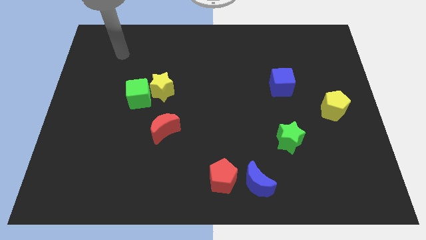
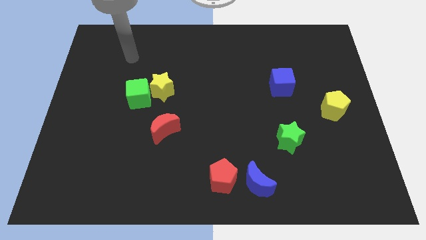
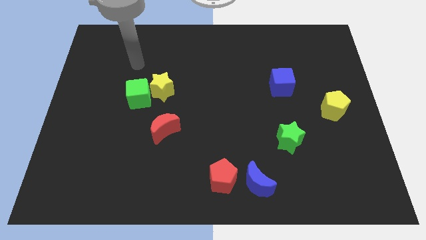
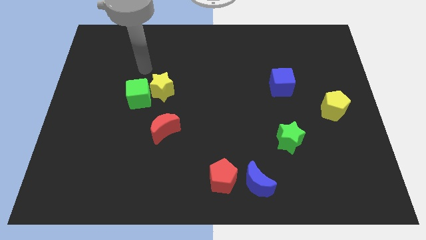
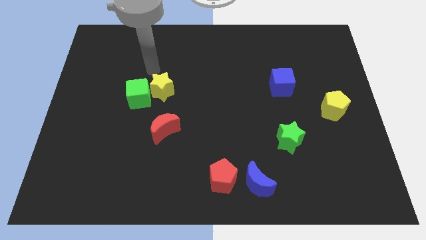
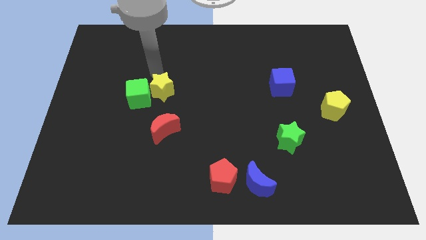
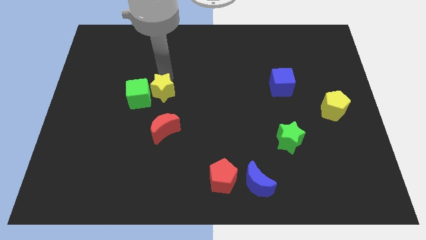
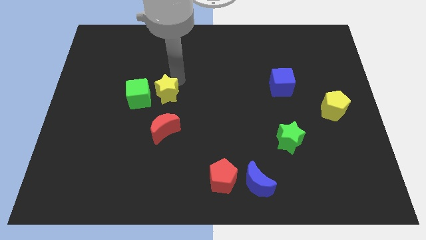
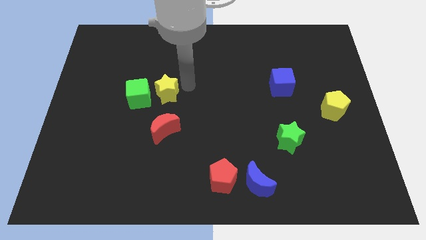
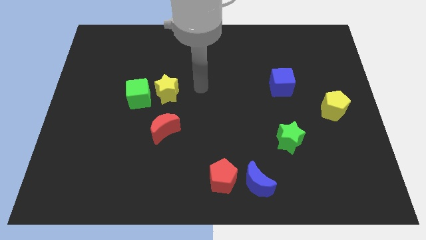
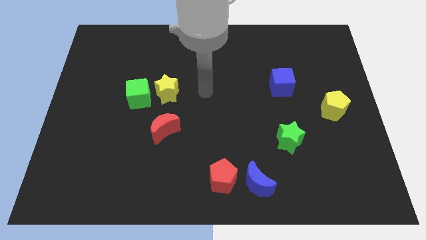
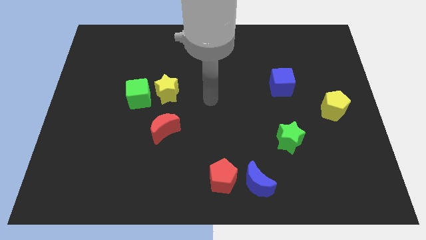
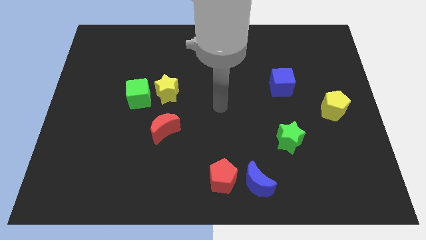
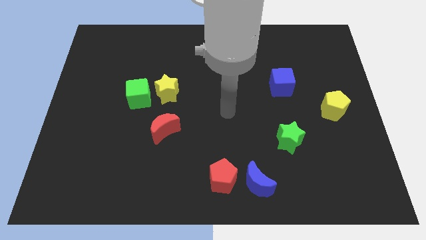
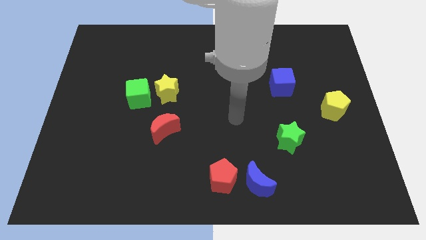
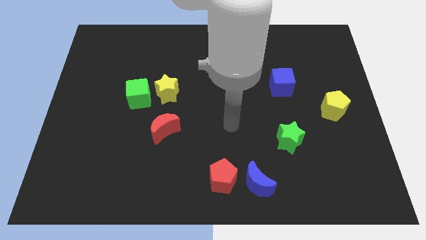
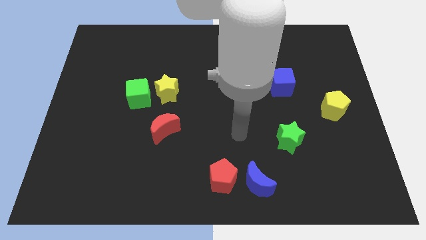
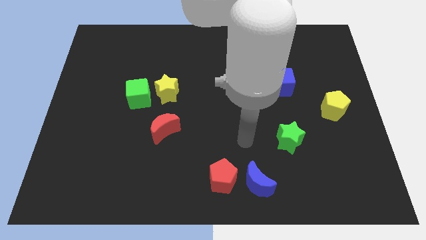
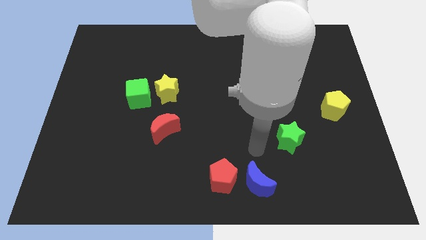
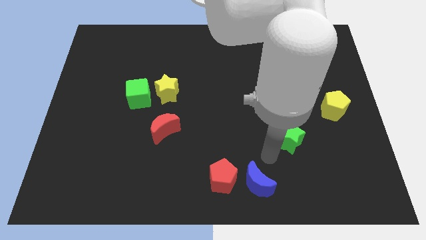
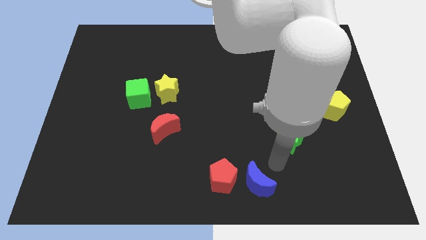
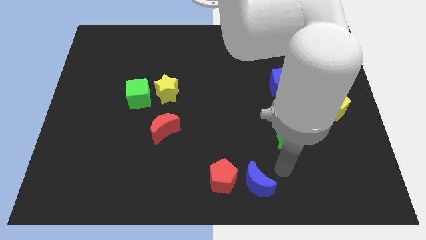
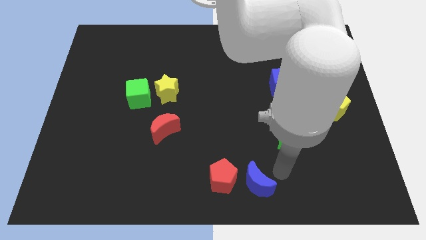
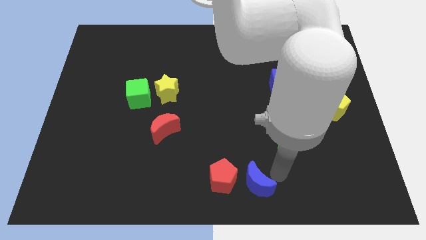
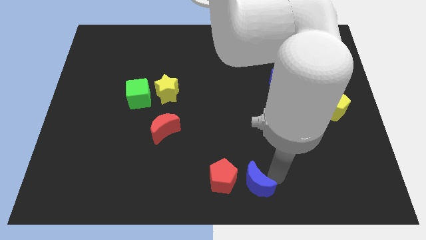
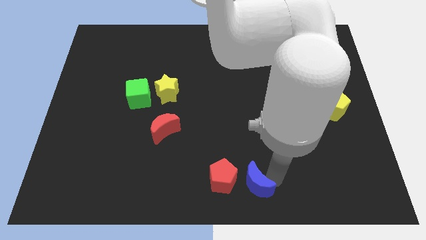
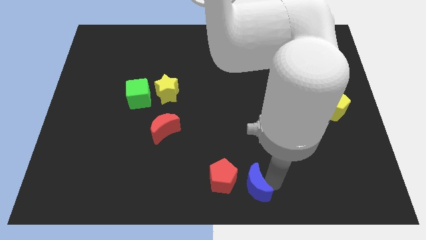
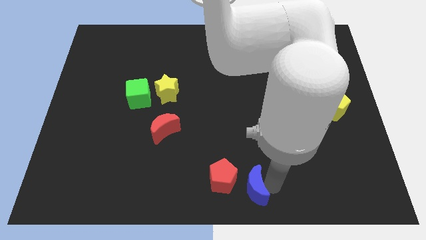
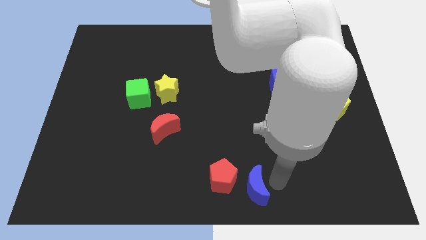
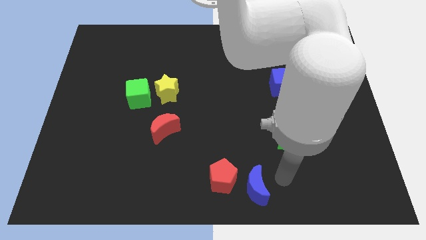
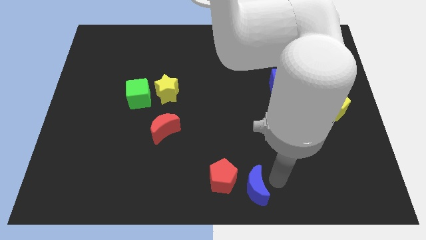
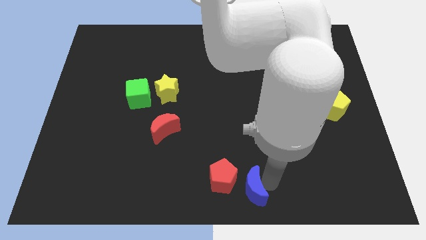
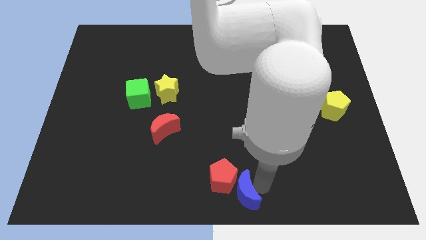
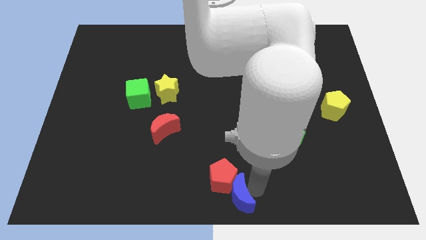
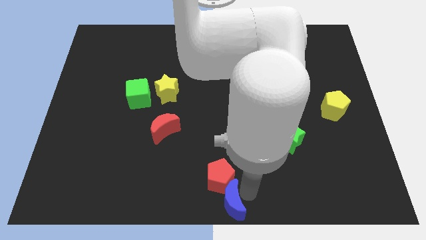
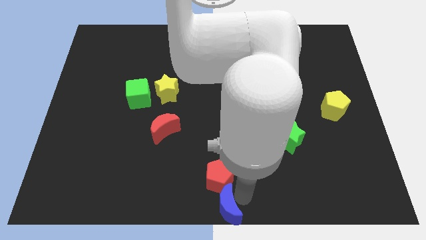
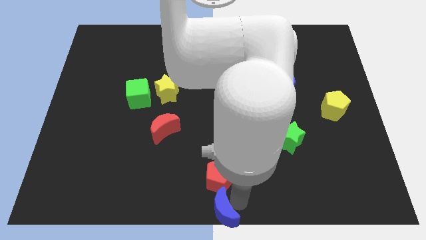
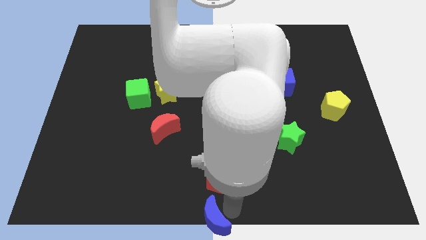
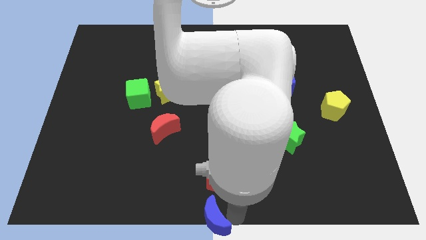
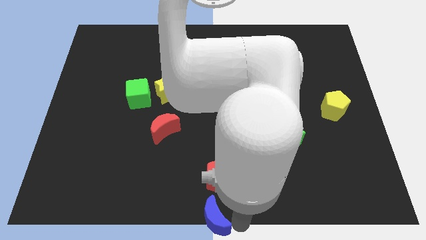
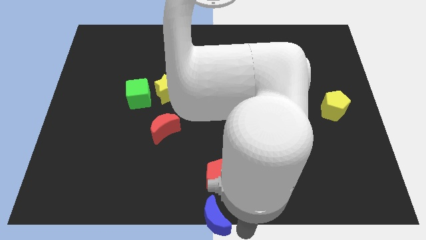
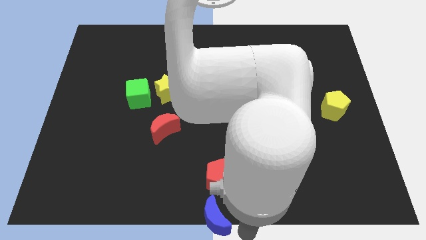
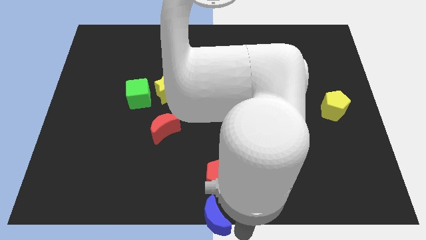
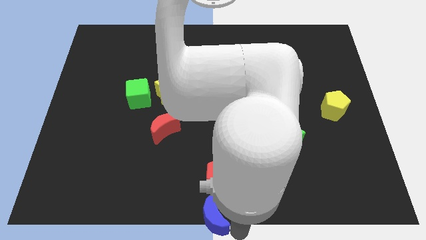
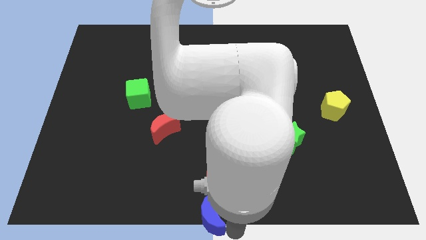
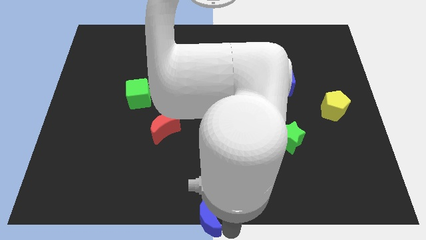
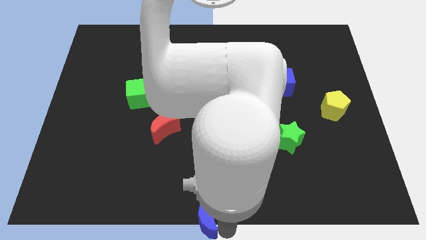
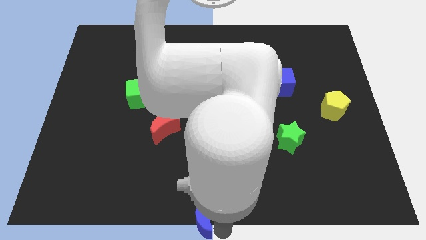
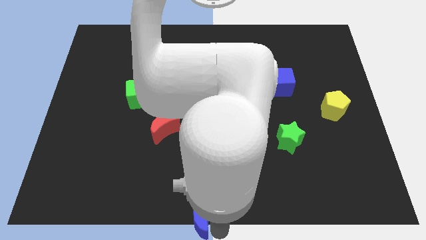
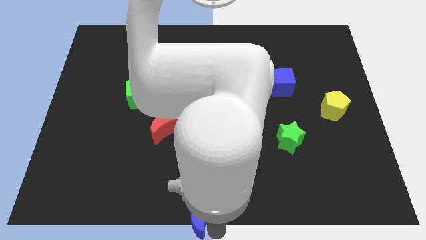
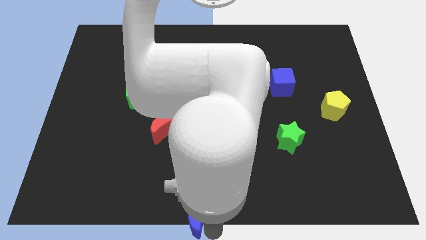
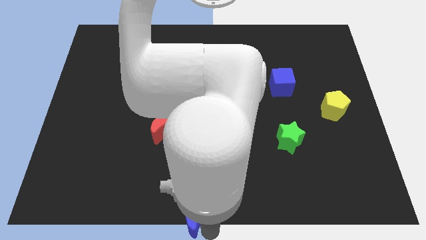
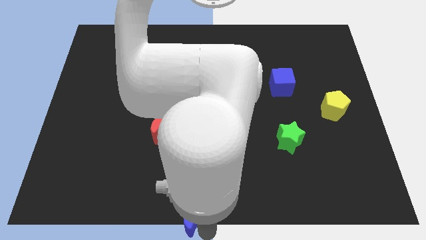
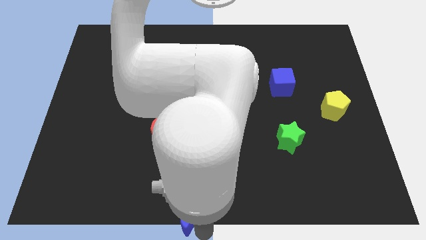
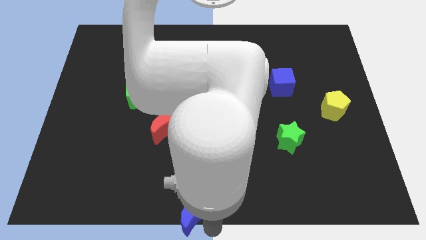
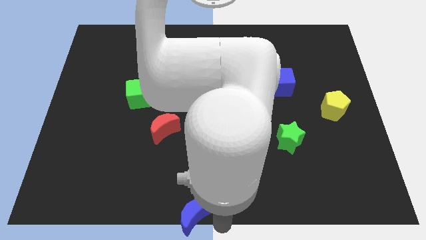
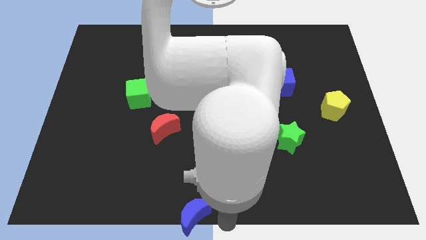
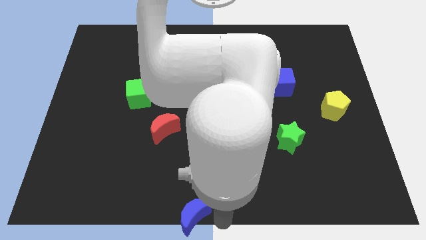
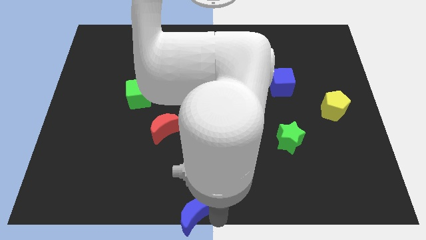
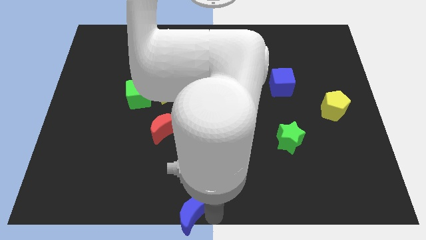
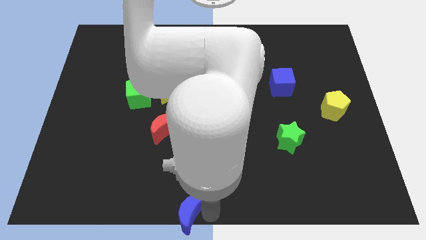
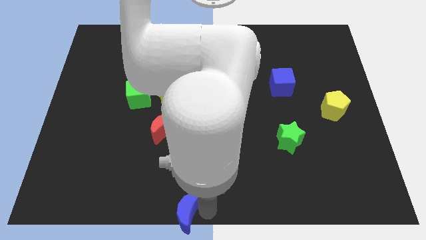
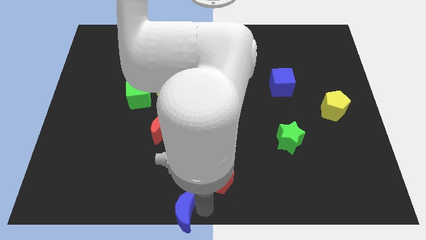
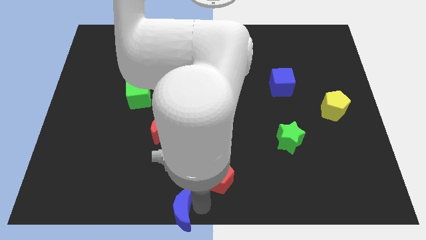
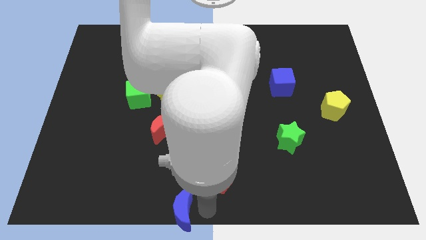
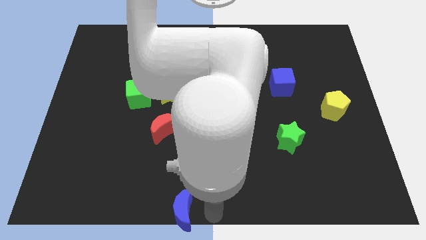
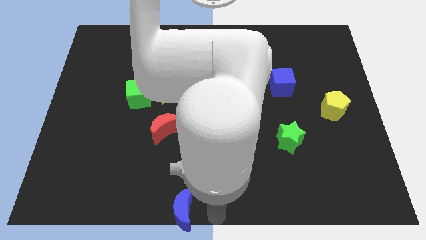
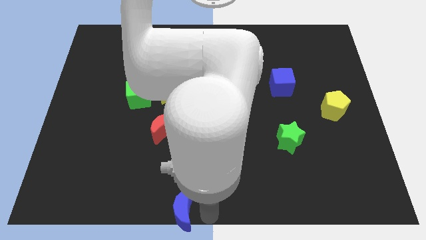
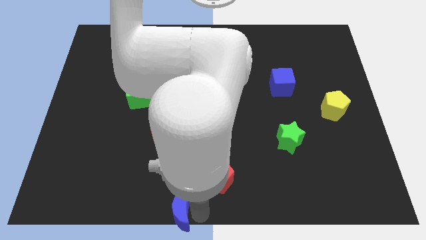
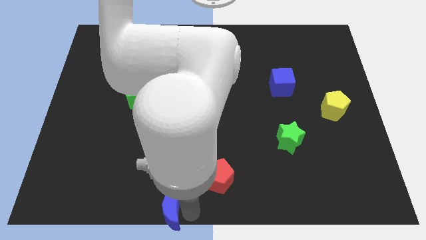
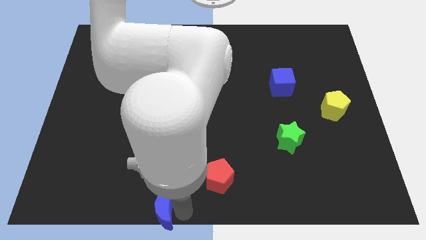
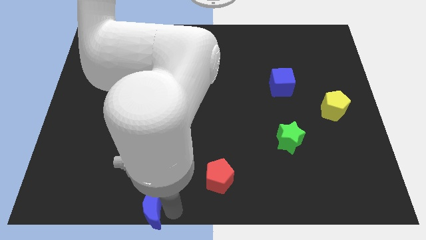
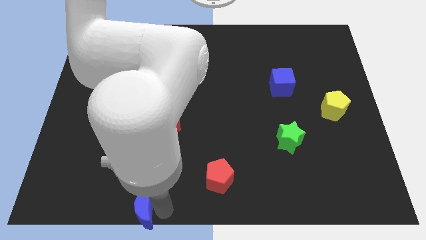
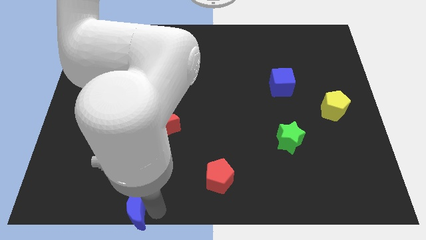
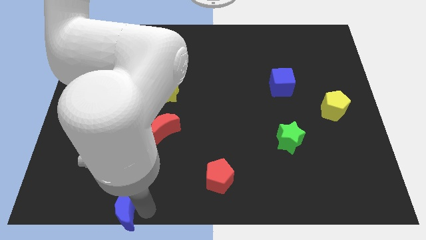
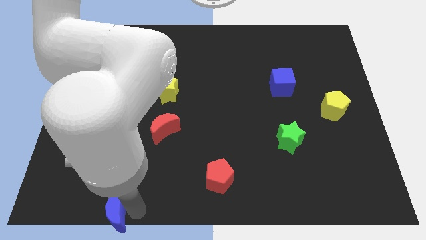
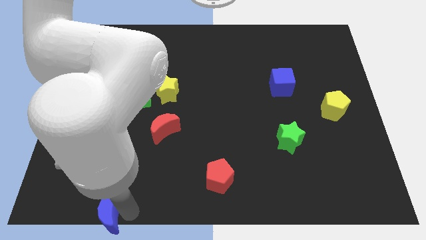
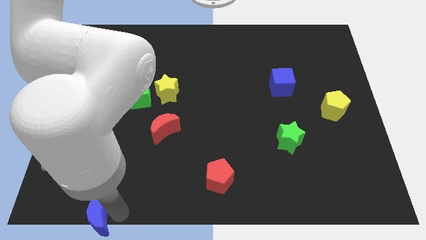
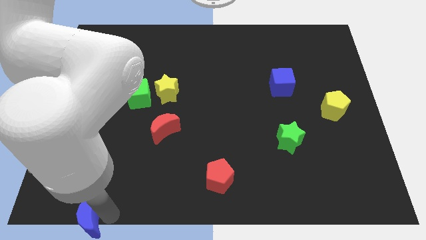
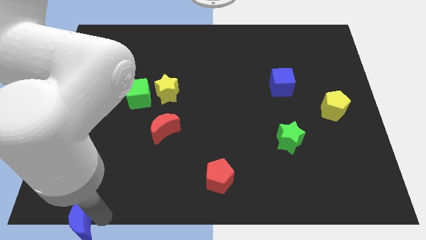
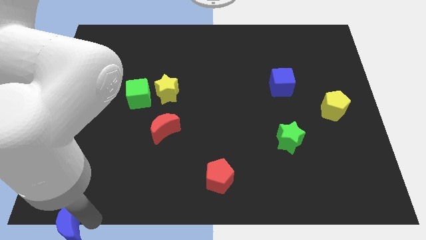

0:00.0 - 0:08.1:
move the blue moon to the bottom left of the board
